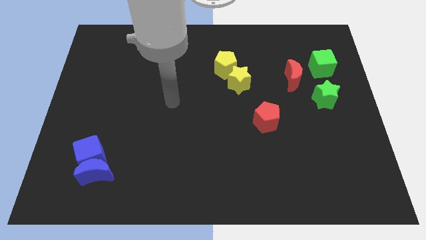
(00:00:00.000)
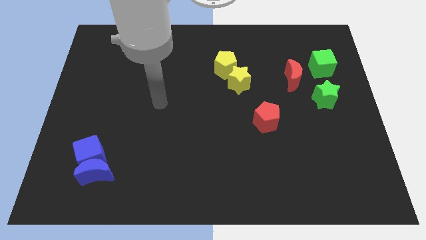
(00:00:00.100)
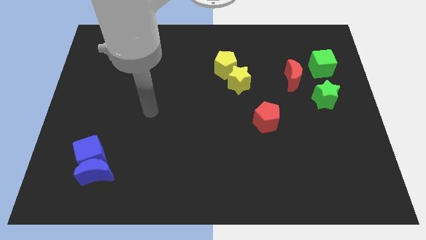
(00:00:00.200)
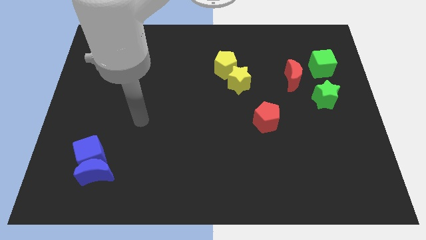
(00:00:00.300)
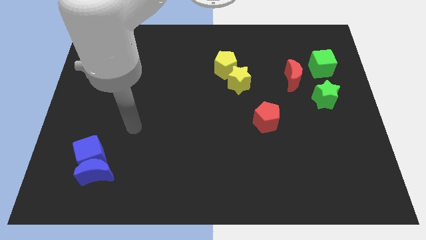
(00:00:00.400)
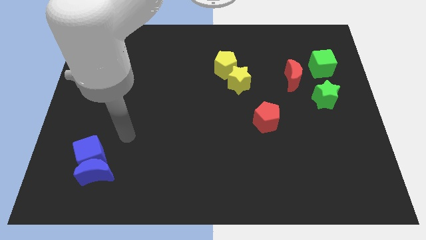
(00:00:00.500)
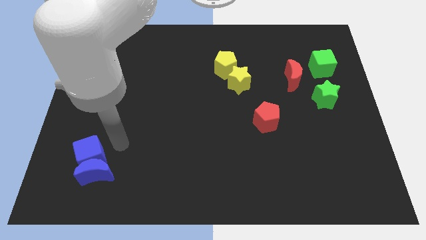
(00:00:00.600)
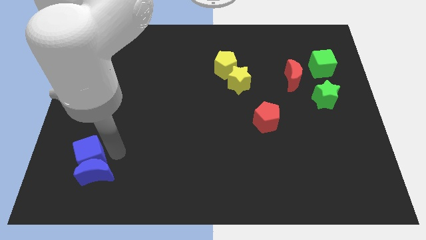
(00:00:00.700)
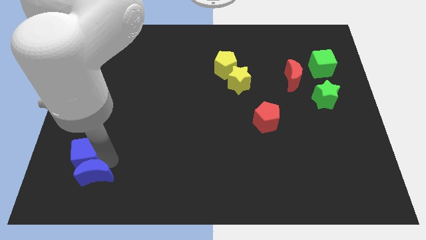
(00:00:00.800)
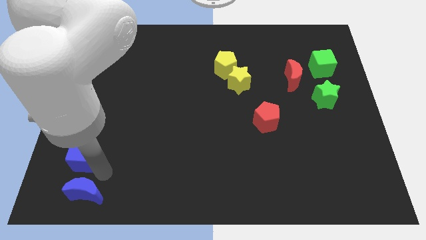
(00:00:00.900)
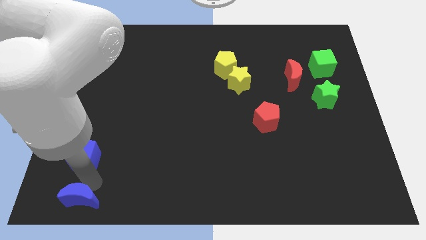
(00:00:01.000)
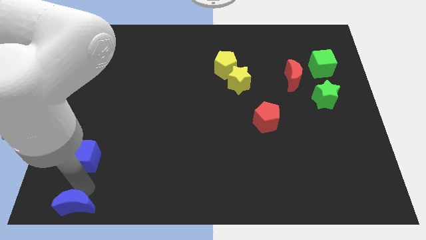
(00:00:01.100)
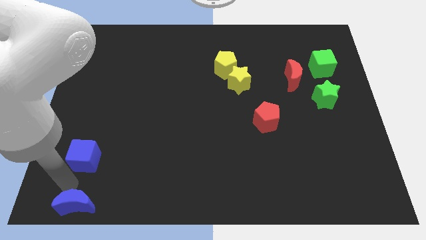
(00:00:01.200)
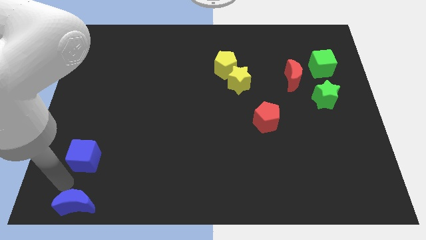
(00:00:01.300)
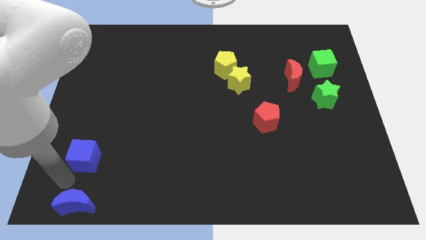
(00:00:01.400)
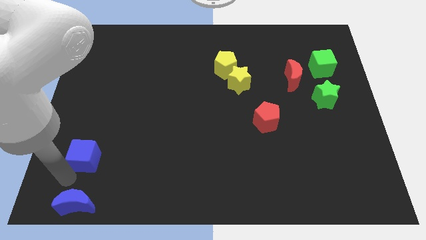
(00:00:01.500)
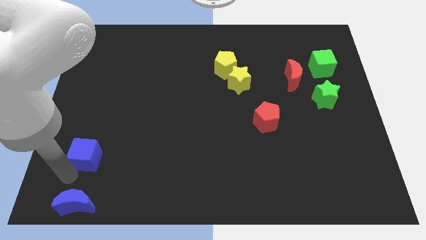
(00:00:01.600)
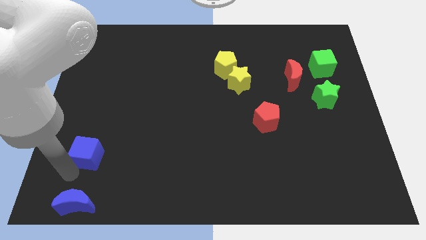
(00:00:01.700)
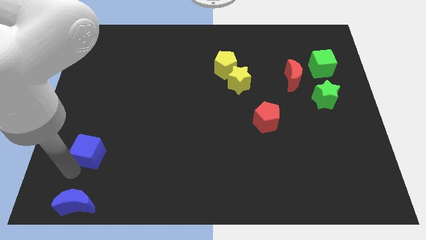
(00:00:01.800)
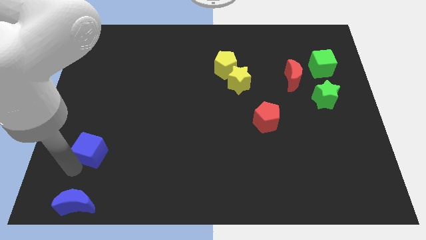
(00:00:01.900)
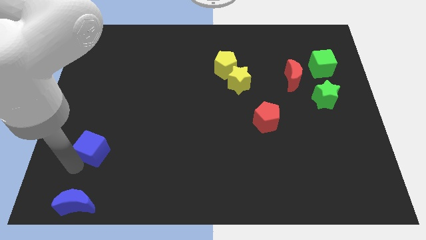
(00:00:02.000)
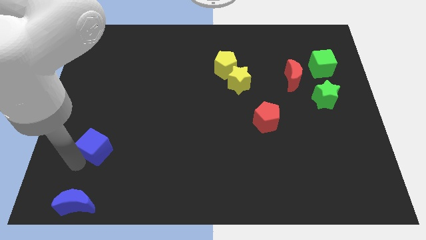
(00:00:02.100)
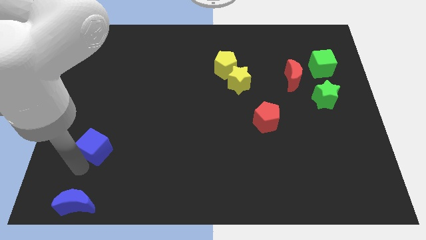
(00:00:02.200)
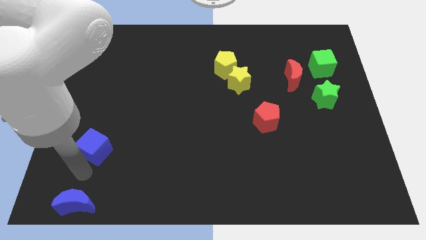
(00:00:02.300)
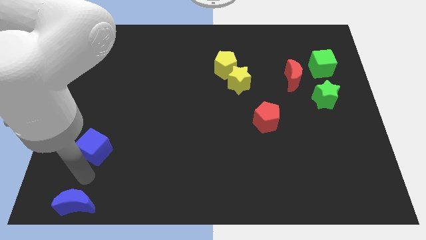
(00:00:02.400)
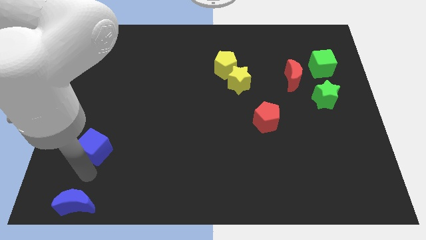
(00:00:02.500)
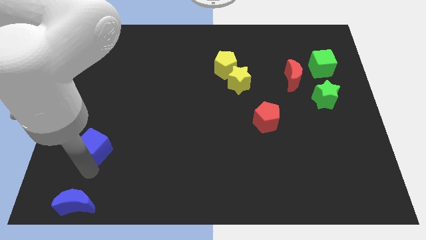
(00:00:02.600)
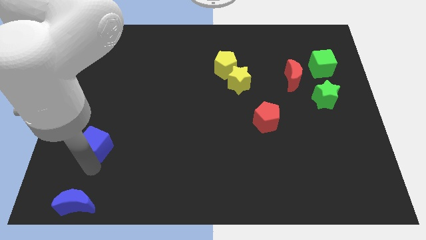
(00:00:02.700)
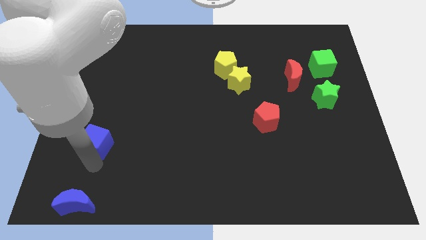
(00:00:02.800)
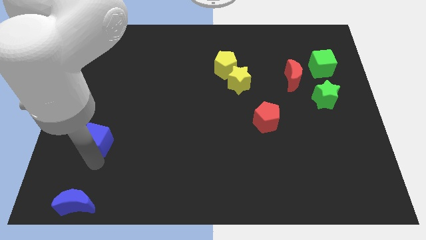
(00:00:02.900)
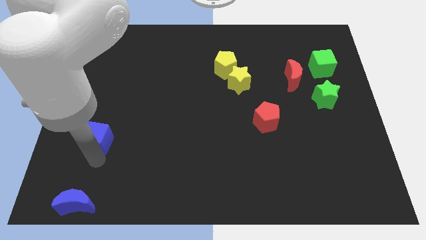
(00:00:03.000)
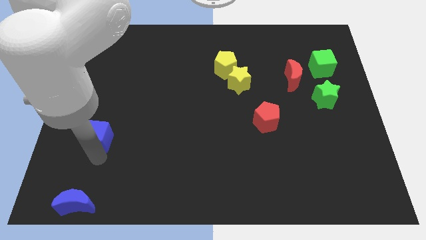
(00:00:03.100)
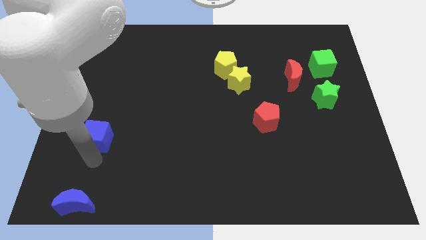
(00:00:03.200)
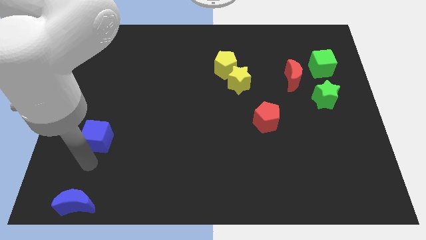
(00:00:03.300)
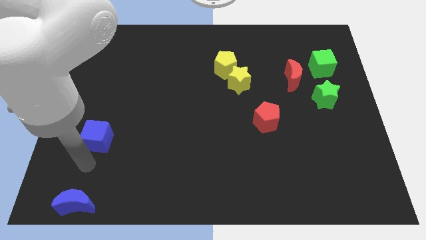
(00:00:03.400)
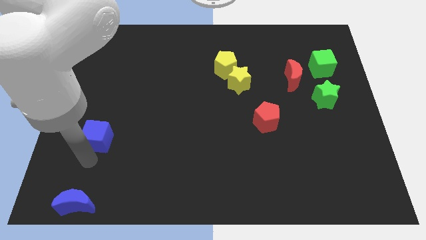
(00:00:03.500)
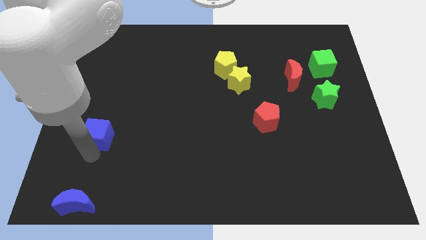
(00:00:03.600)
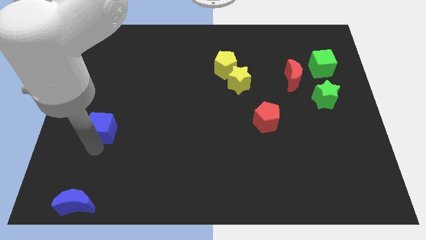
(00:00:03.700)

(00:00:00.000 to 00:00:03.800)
slide the blue cube upwards a bit

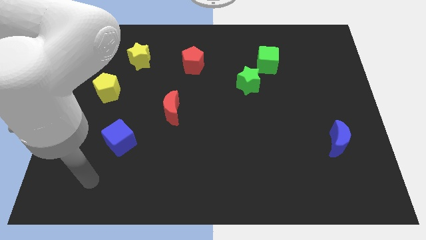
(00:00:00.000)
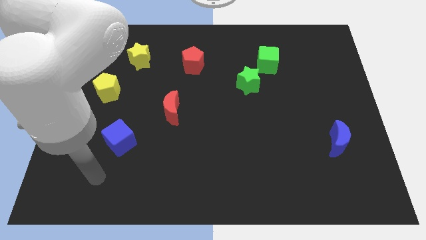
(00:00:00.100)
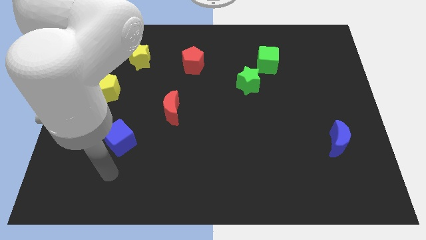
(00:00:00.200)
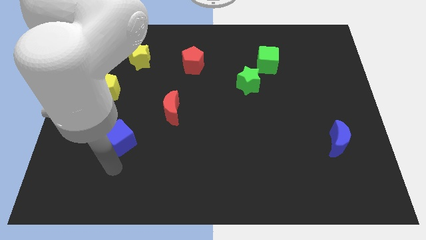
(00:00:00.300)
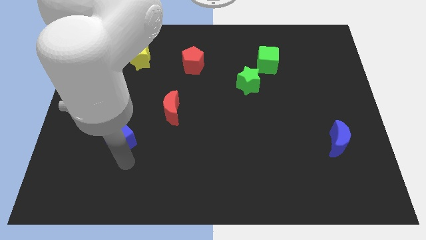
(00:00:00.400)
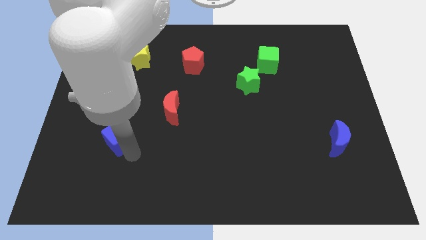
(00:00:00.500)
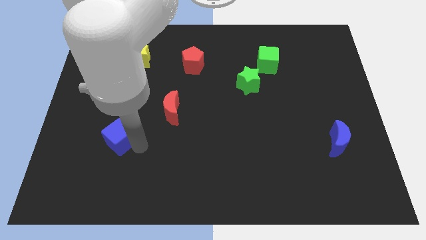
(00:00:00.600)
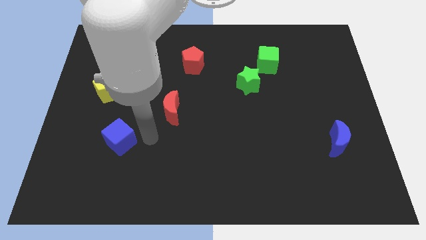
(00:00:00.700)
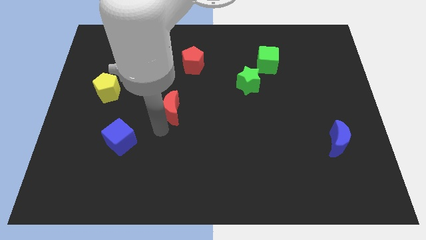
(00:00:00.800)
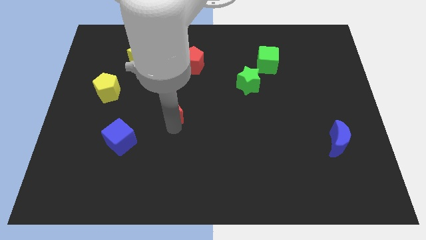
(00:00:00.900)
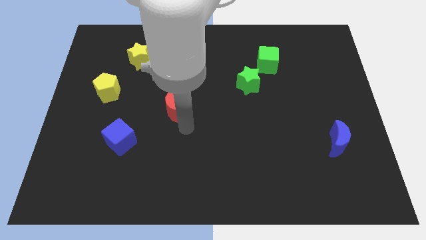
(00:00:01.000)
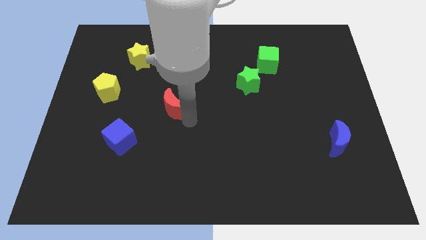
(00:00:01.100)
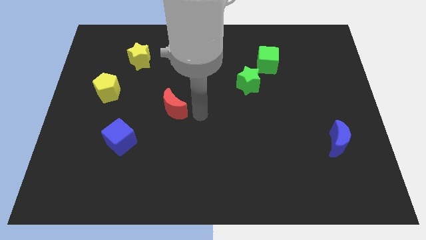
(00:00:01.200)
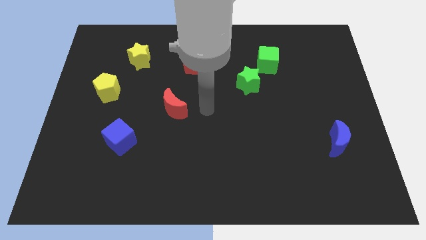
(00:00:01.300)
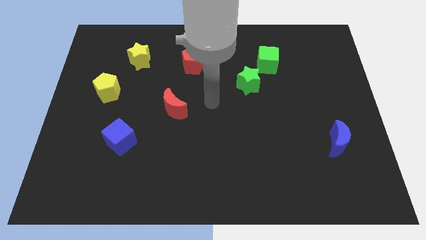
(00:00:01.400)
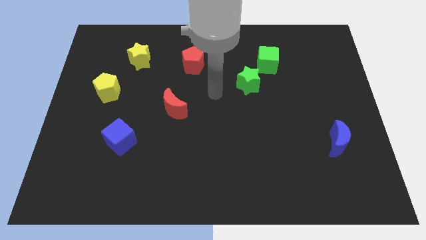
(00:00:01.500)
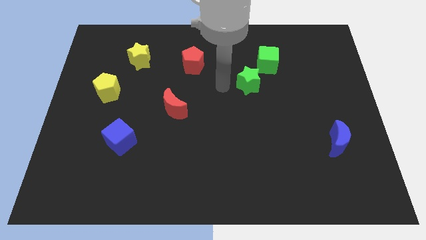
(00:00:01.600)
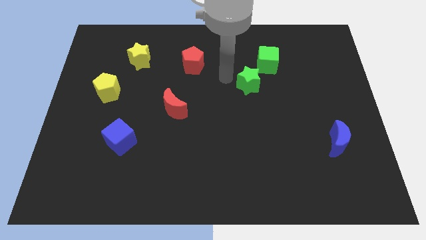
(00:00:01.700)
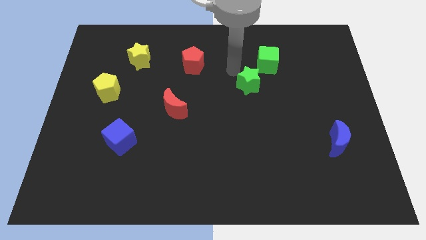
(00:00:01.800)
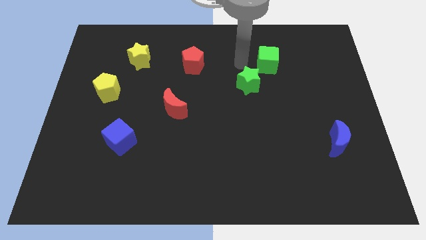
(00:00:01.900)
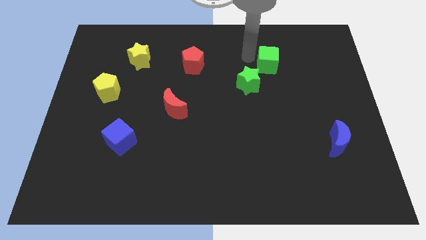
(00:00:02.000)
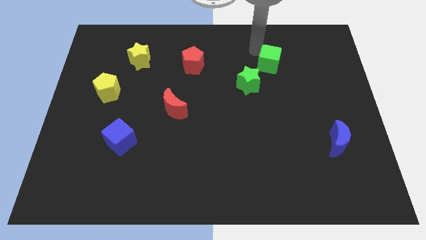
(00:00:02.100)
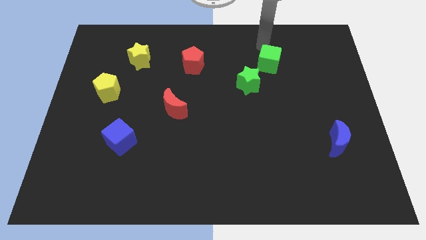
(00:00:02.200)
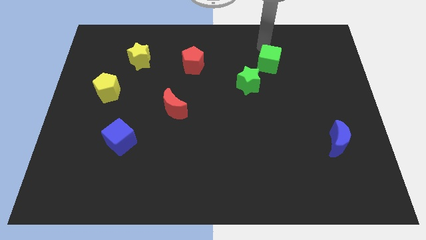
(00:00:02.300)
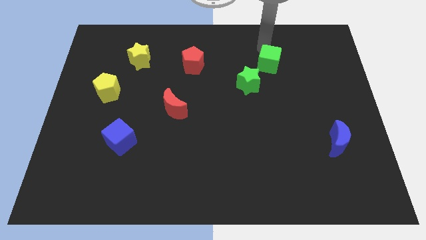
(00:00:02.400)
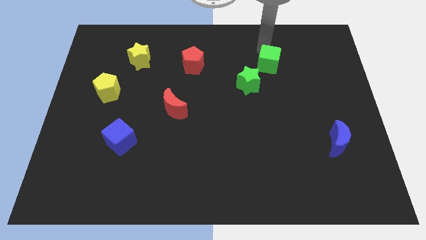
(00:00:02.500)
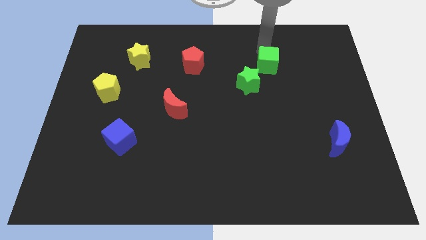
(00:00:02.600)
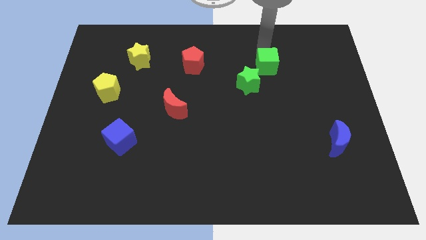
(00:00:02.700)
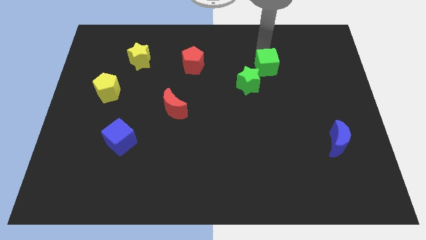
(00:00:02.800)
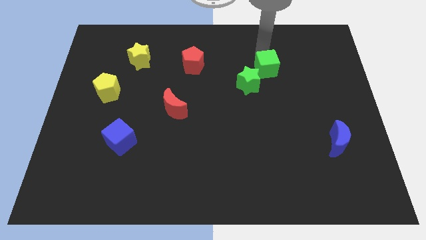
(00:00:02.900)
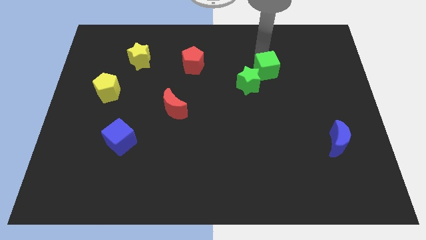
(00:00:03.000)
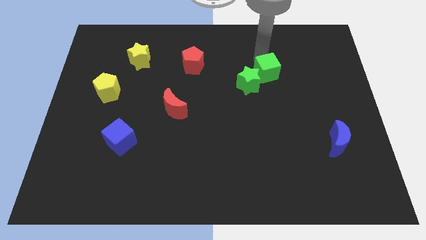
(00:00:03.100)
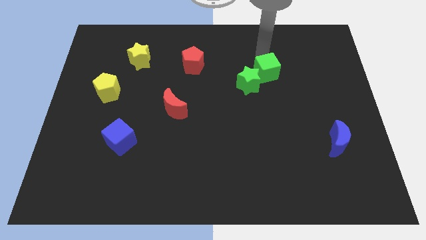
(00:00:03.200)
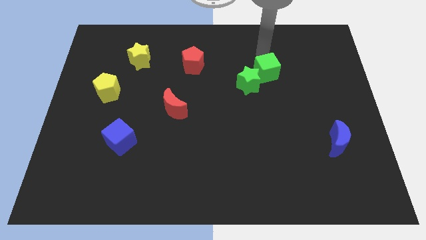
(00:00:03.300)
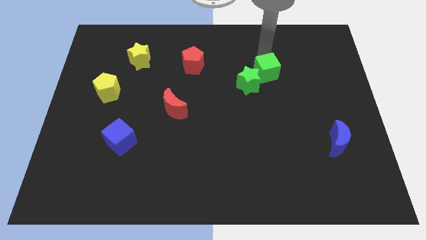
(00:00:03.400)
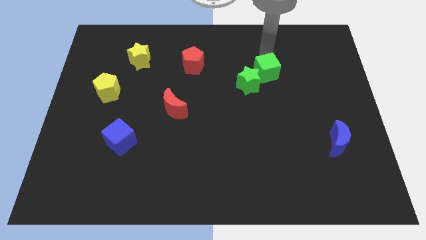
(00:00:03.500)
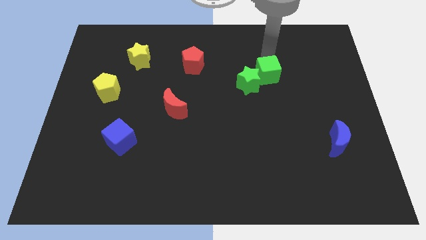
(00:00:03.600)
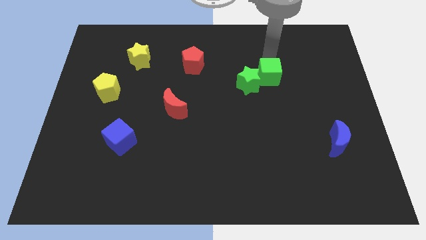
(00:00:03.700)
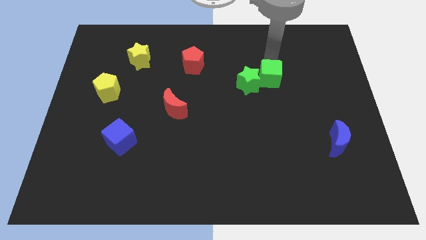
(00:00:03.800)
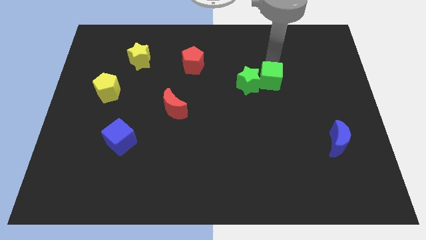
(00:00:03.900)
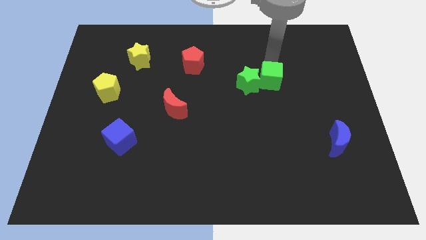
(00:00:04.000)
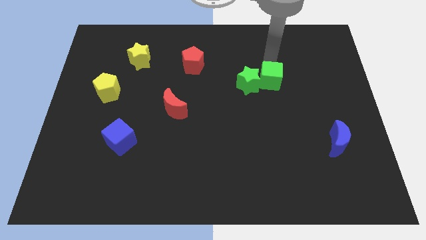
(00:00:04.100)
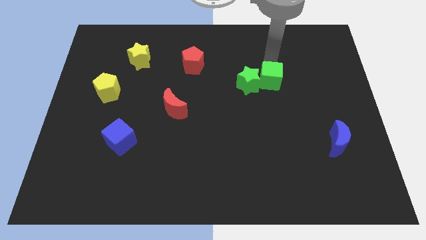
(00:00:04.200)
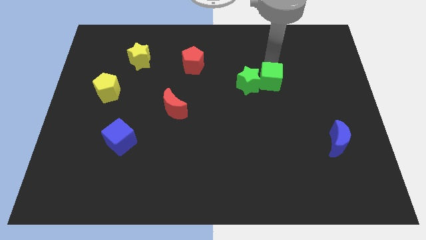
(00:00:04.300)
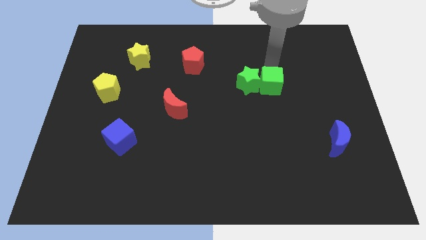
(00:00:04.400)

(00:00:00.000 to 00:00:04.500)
slightly slide the green cube down
